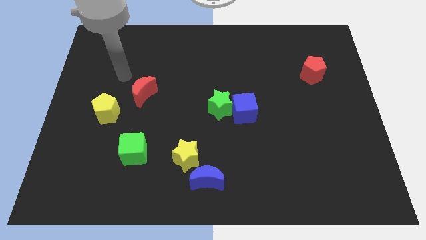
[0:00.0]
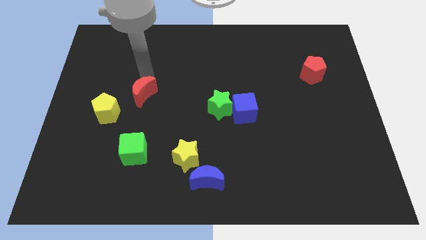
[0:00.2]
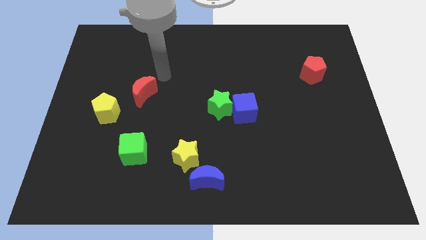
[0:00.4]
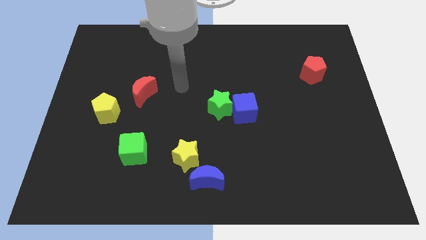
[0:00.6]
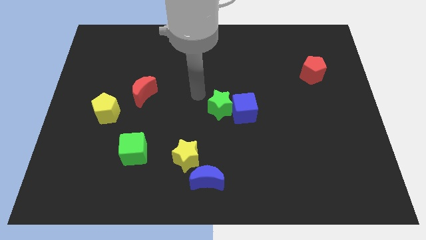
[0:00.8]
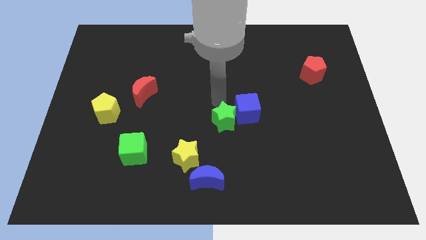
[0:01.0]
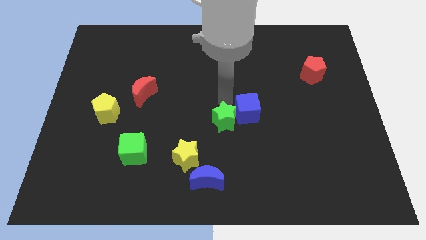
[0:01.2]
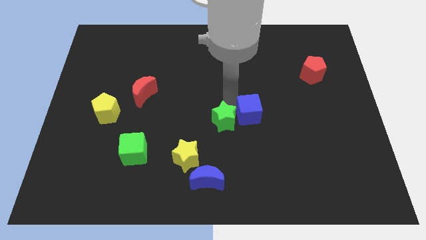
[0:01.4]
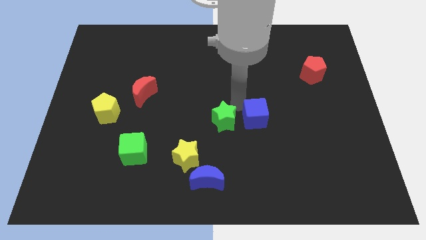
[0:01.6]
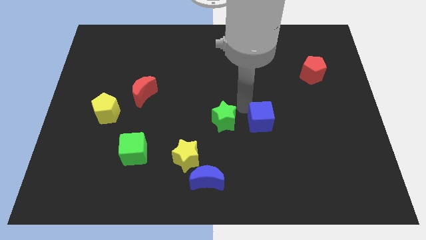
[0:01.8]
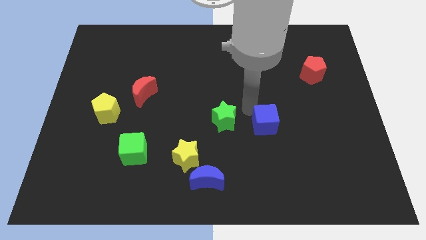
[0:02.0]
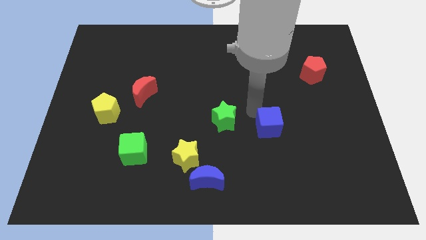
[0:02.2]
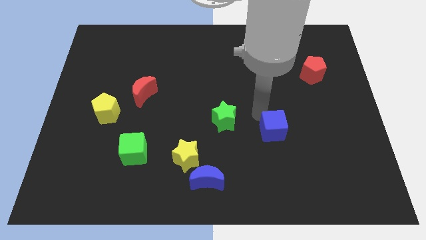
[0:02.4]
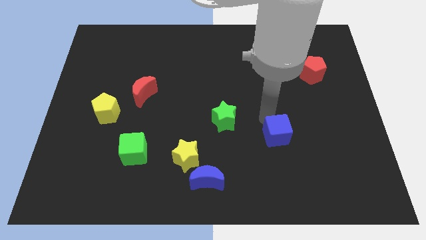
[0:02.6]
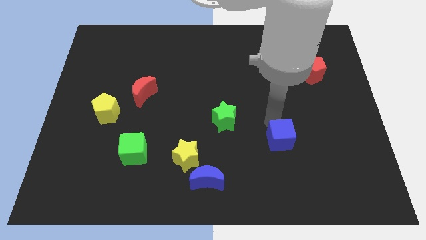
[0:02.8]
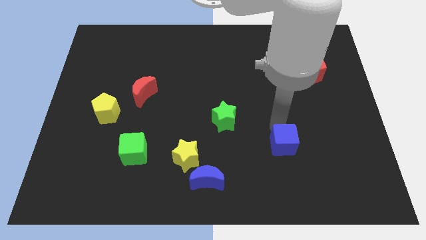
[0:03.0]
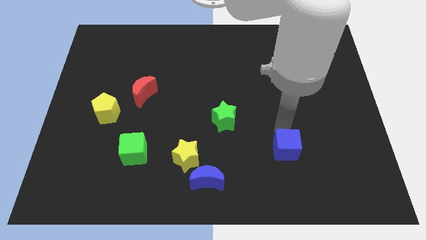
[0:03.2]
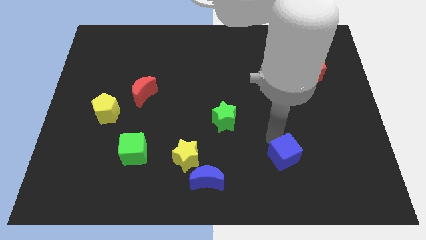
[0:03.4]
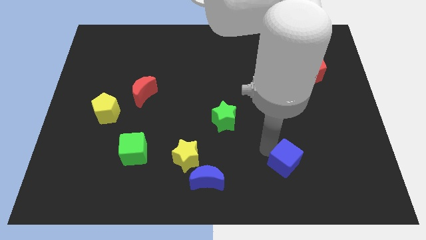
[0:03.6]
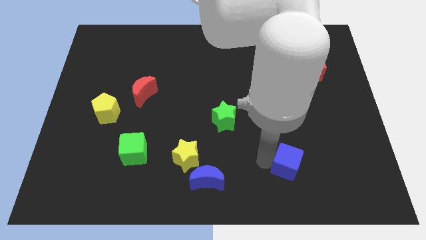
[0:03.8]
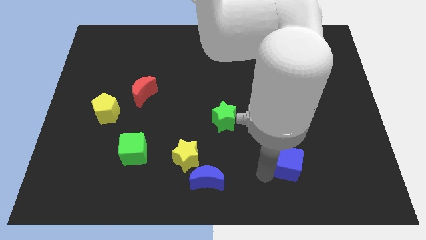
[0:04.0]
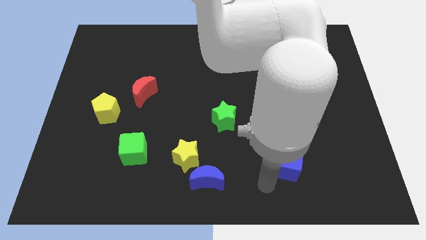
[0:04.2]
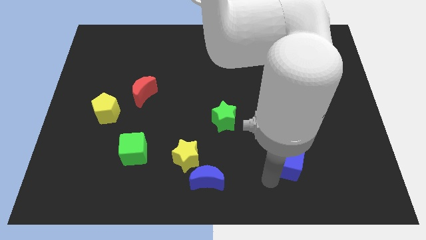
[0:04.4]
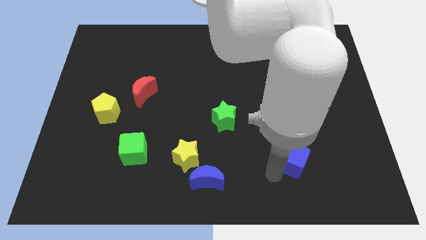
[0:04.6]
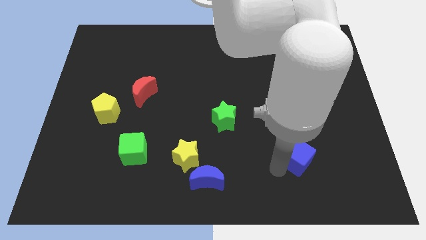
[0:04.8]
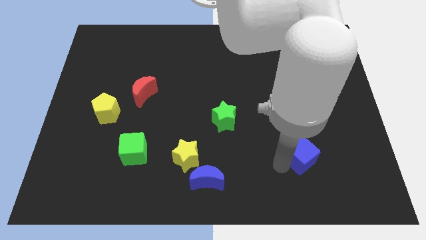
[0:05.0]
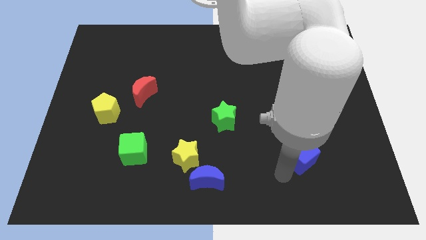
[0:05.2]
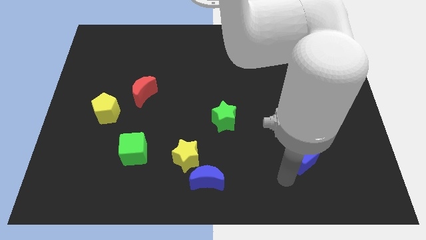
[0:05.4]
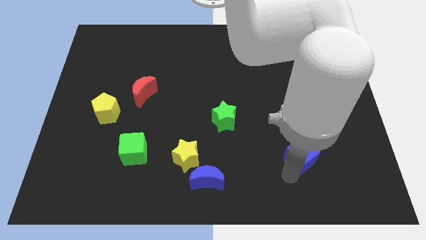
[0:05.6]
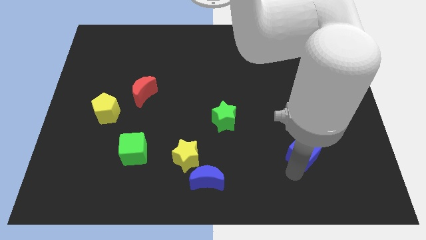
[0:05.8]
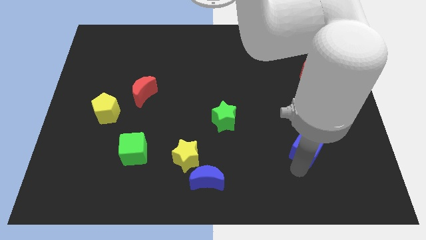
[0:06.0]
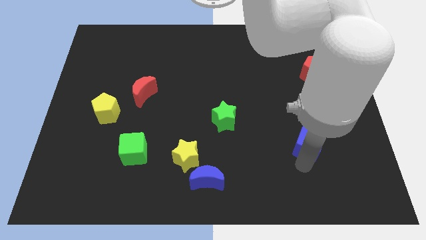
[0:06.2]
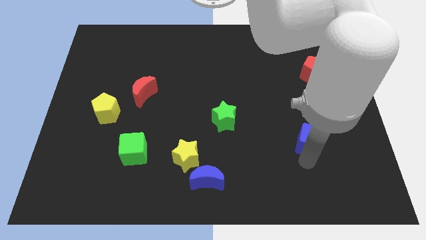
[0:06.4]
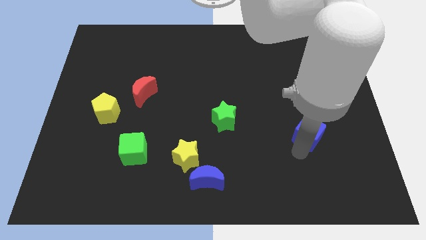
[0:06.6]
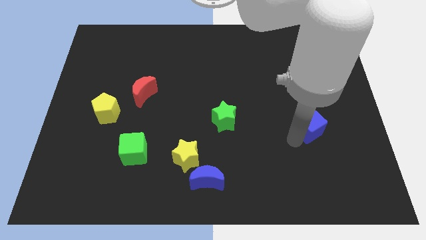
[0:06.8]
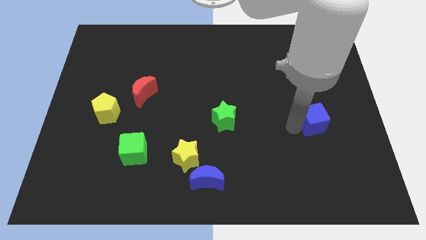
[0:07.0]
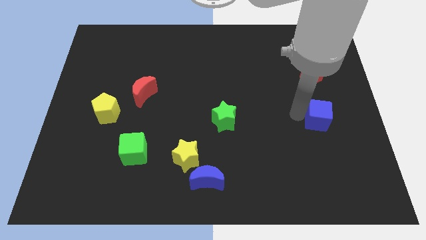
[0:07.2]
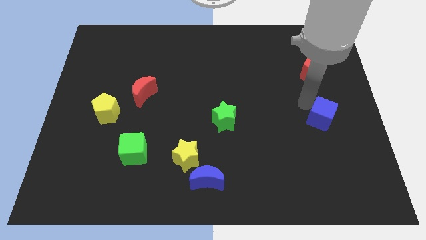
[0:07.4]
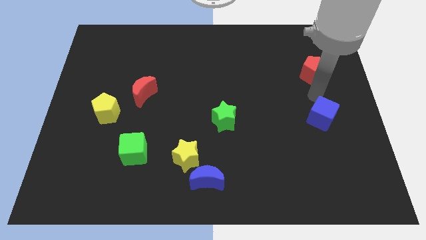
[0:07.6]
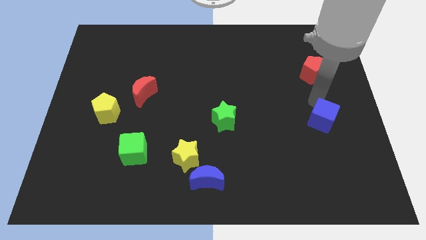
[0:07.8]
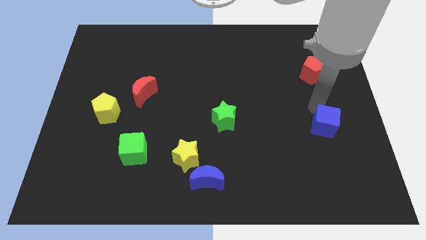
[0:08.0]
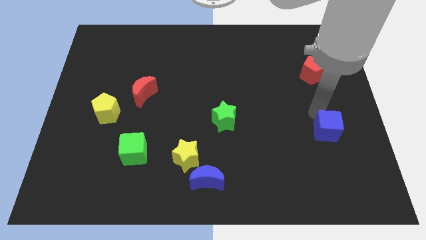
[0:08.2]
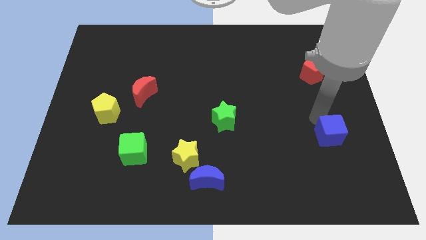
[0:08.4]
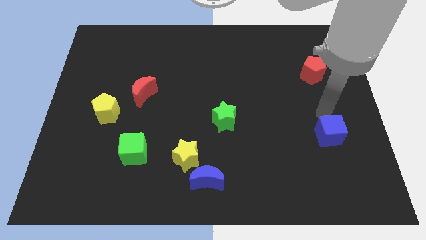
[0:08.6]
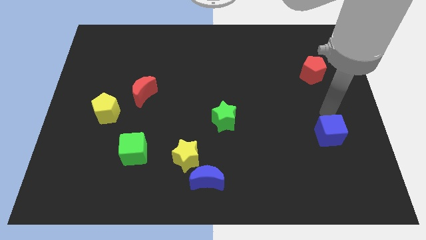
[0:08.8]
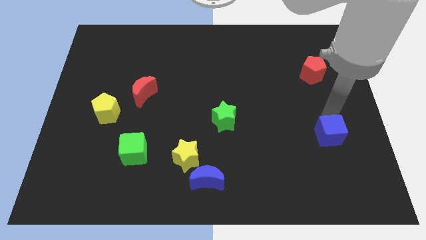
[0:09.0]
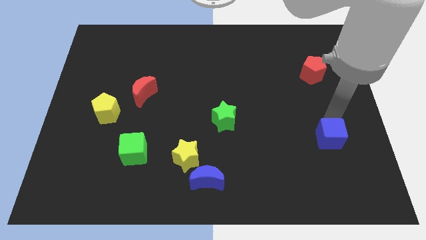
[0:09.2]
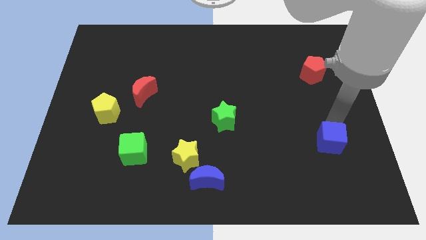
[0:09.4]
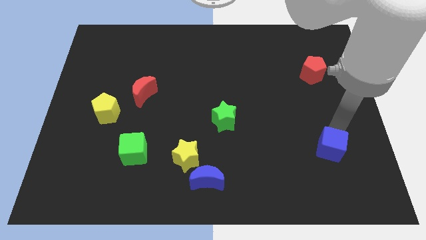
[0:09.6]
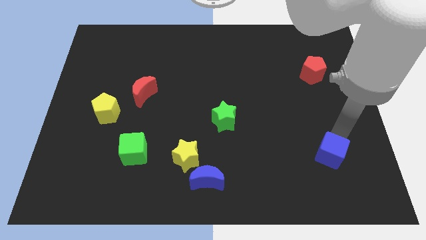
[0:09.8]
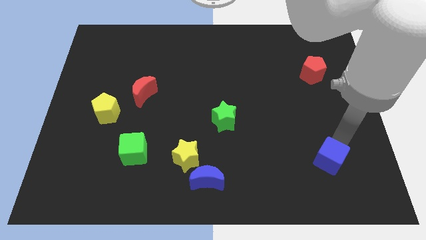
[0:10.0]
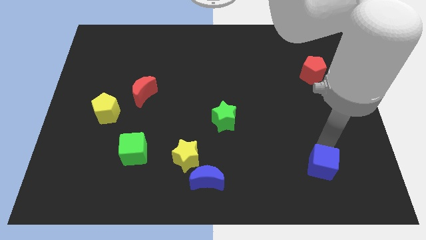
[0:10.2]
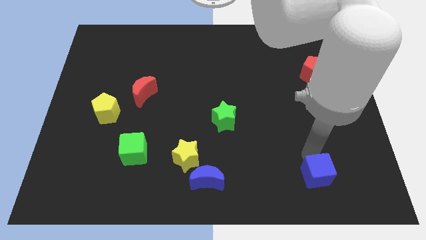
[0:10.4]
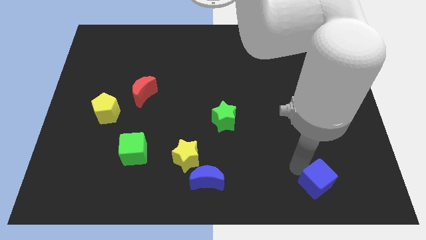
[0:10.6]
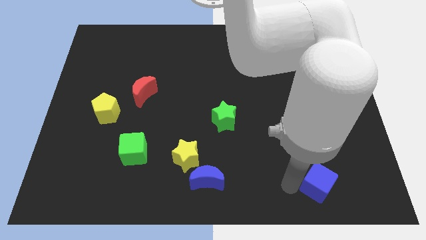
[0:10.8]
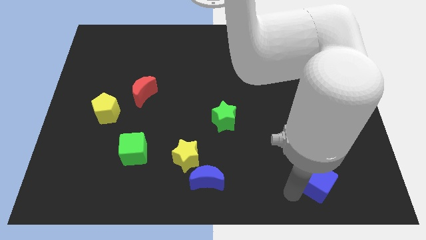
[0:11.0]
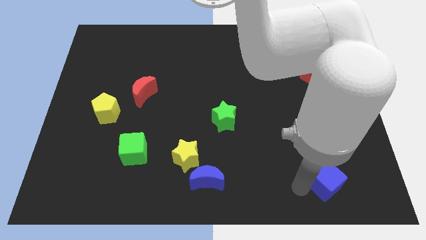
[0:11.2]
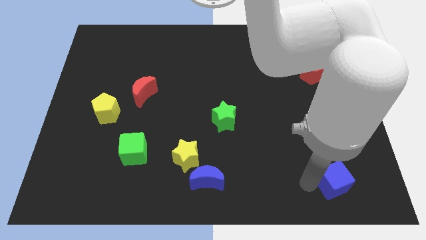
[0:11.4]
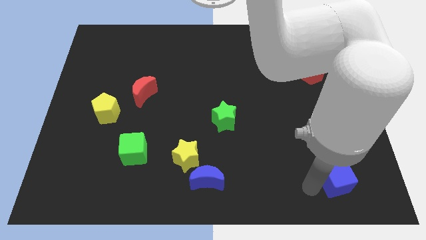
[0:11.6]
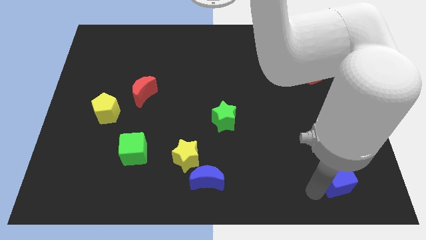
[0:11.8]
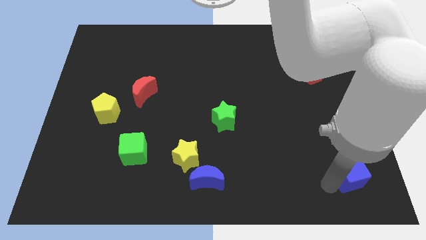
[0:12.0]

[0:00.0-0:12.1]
put the blue cube to the lower right corner

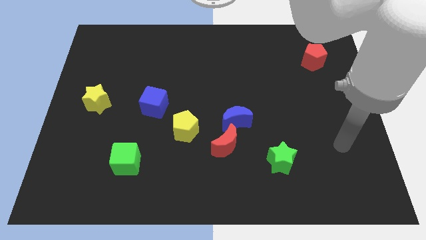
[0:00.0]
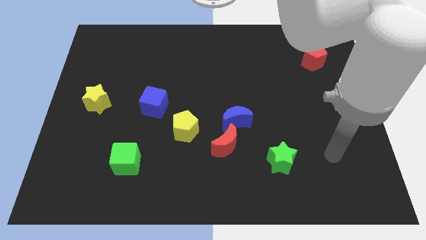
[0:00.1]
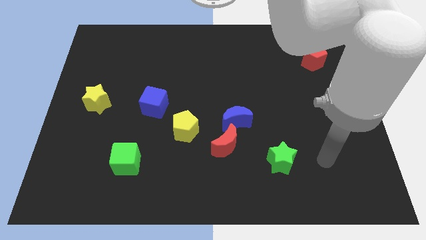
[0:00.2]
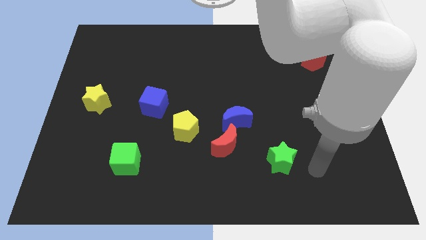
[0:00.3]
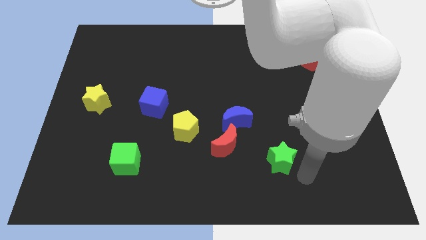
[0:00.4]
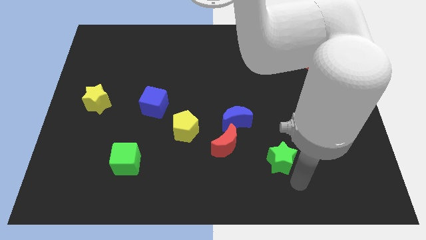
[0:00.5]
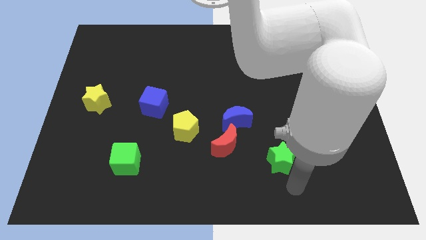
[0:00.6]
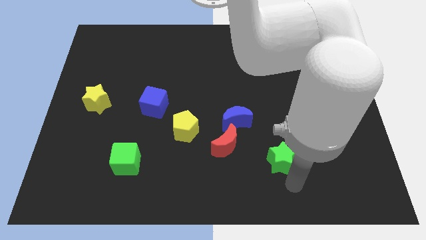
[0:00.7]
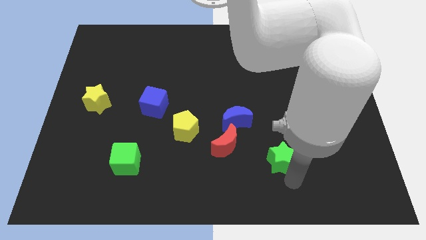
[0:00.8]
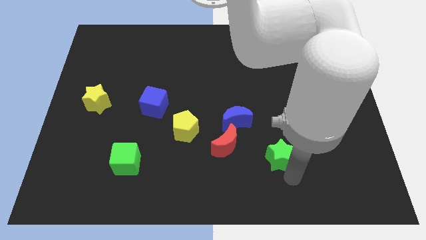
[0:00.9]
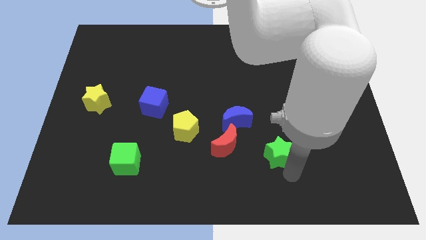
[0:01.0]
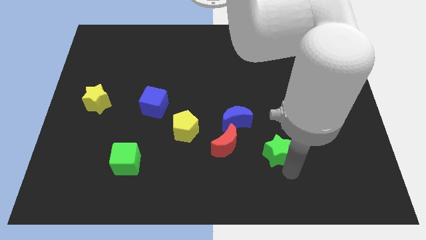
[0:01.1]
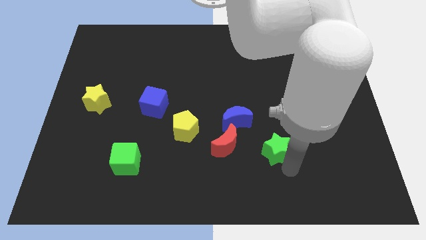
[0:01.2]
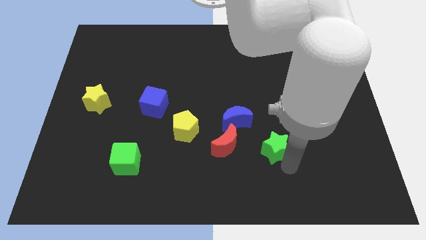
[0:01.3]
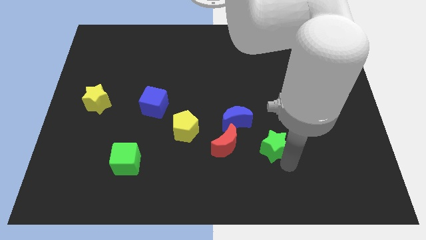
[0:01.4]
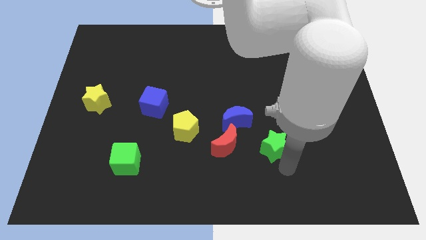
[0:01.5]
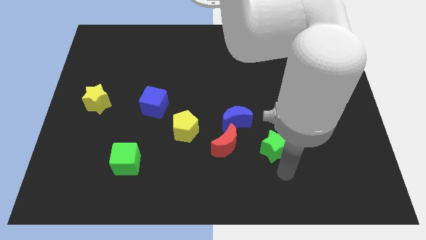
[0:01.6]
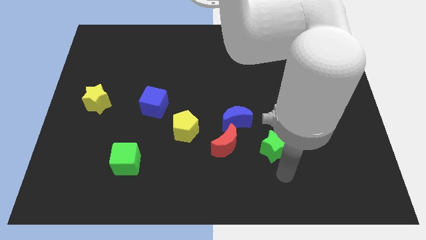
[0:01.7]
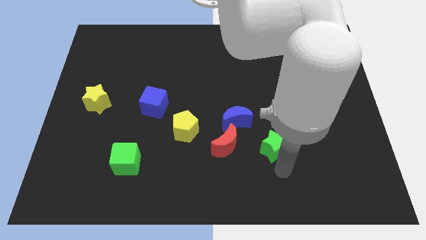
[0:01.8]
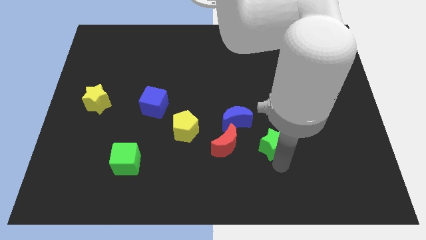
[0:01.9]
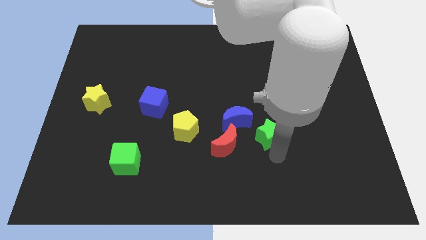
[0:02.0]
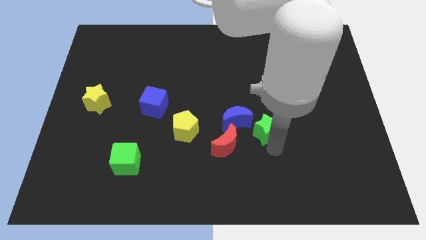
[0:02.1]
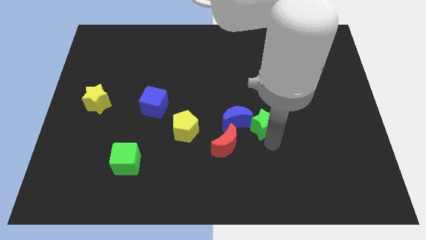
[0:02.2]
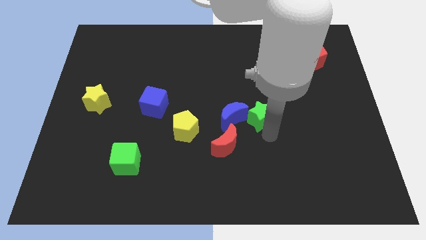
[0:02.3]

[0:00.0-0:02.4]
move the green star to the center
